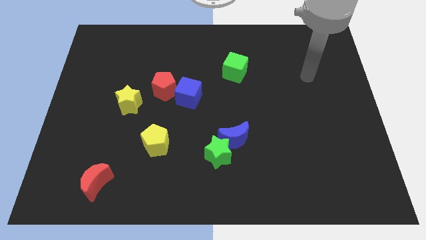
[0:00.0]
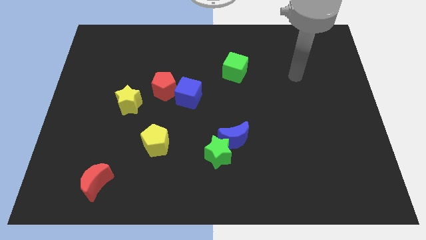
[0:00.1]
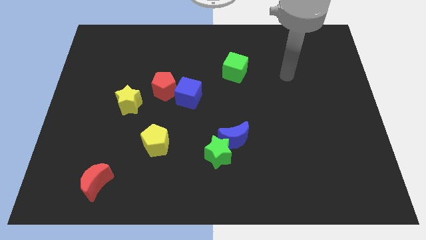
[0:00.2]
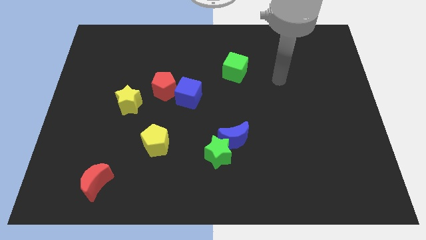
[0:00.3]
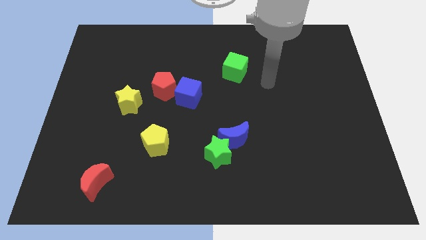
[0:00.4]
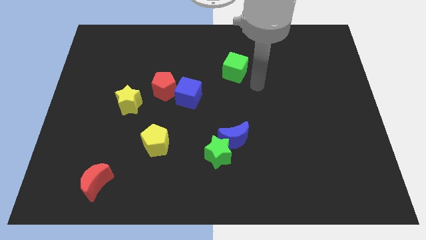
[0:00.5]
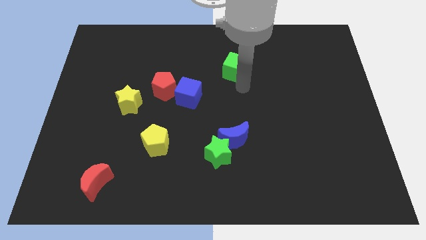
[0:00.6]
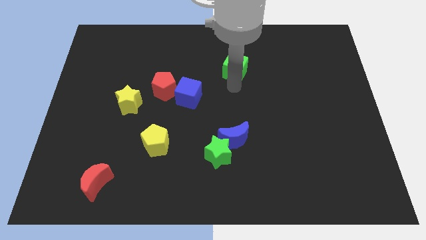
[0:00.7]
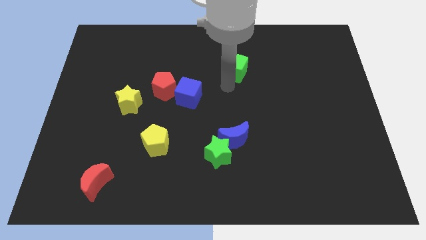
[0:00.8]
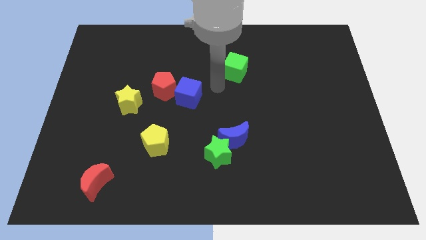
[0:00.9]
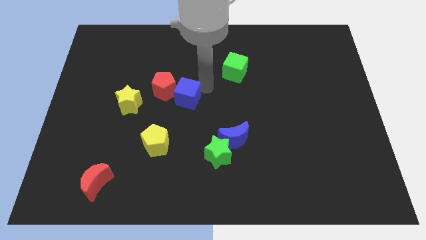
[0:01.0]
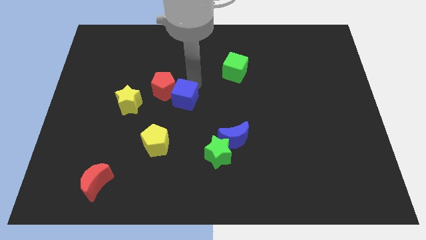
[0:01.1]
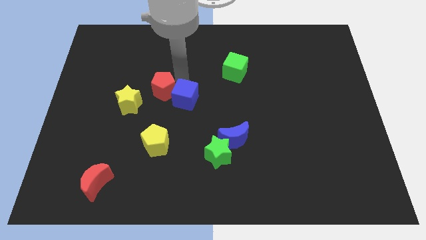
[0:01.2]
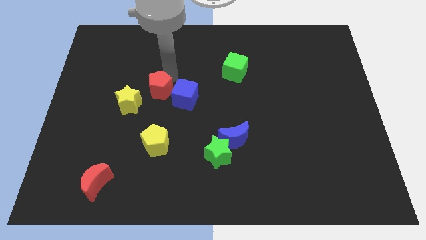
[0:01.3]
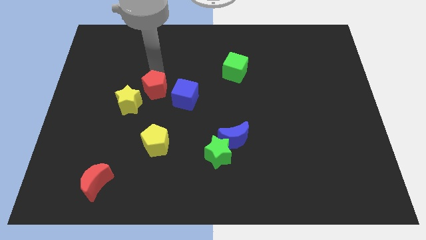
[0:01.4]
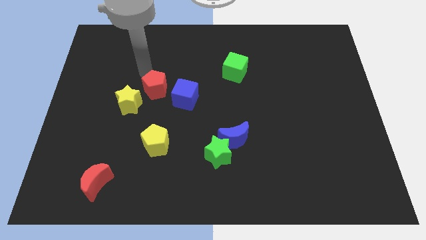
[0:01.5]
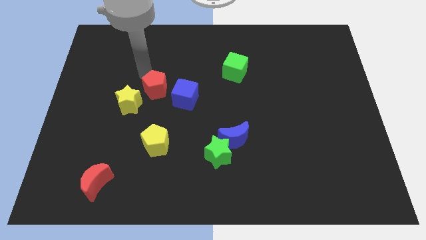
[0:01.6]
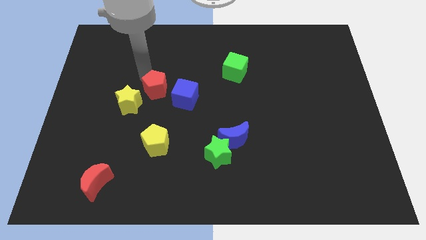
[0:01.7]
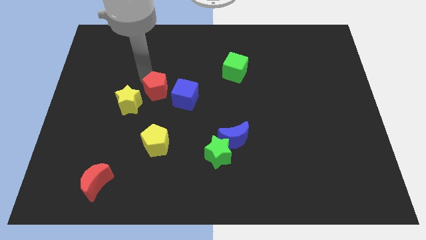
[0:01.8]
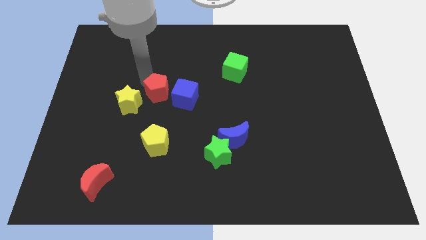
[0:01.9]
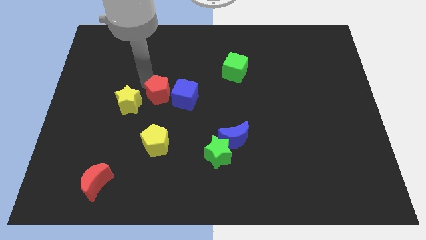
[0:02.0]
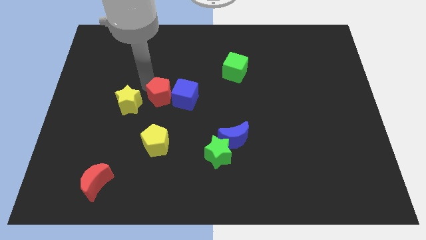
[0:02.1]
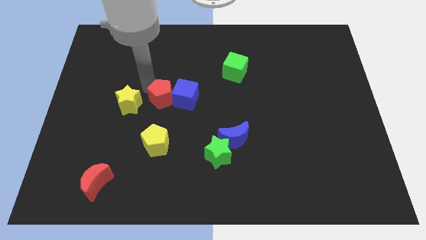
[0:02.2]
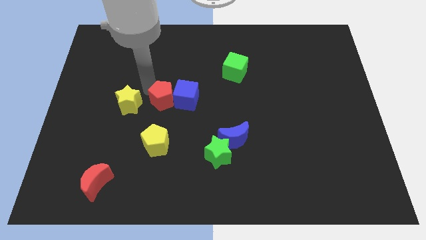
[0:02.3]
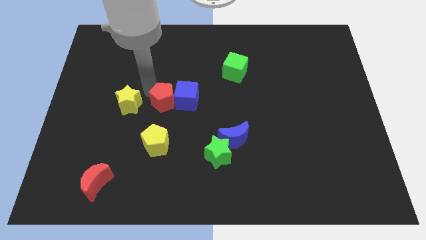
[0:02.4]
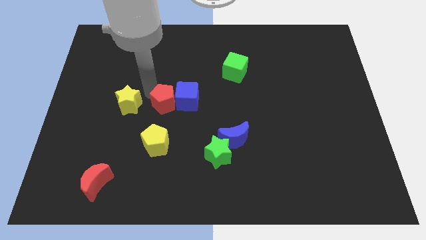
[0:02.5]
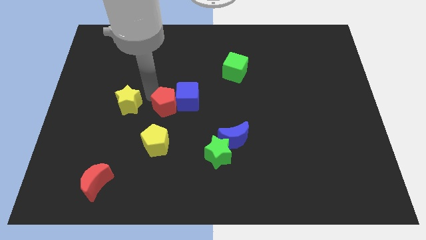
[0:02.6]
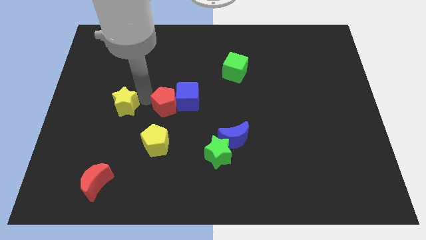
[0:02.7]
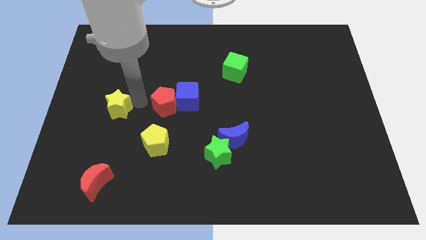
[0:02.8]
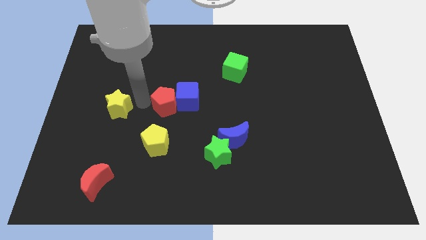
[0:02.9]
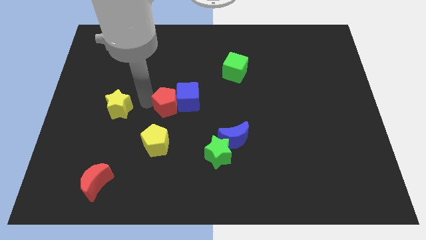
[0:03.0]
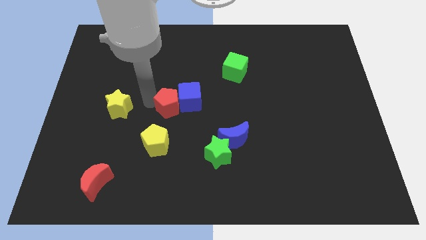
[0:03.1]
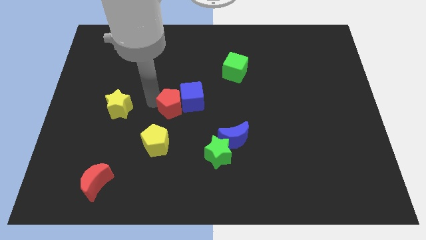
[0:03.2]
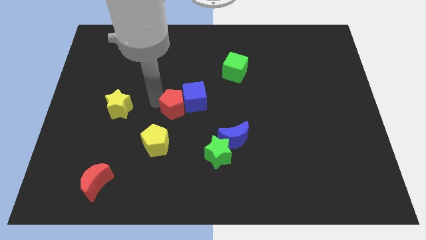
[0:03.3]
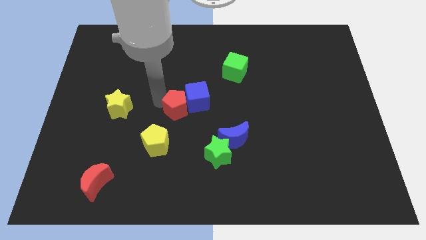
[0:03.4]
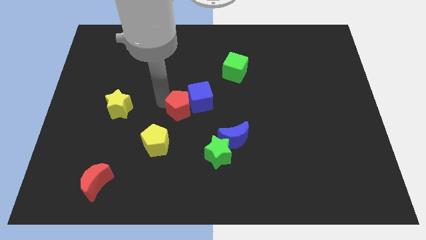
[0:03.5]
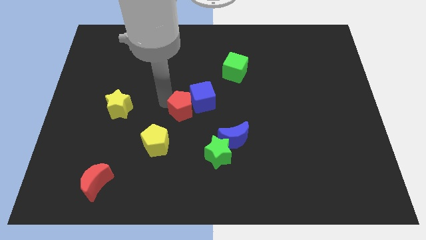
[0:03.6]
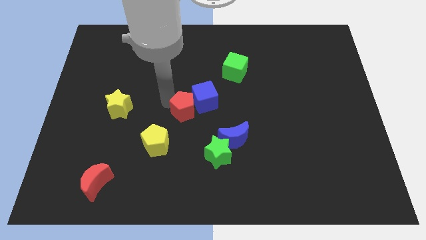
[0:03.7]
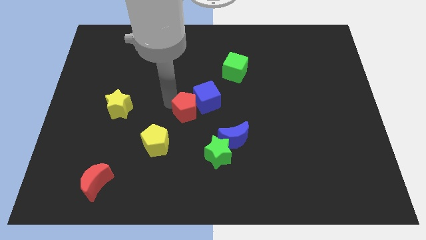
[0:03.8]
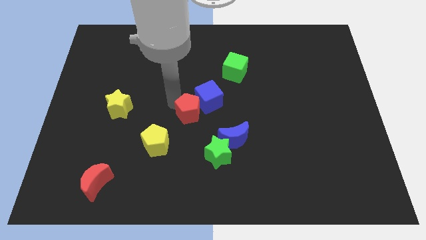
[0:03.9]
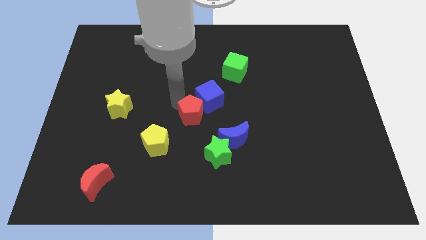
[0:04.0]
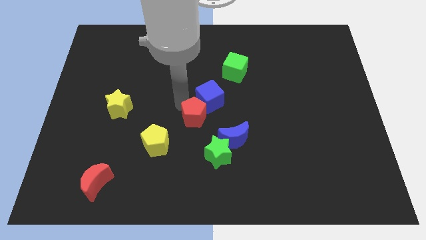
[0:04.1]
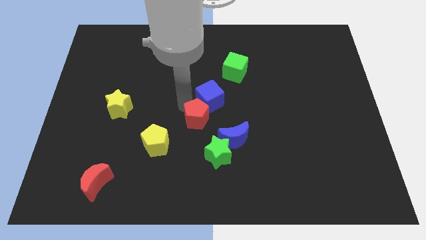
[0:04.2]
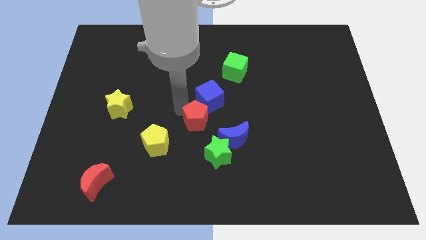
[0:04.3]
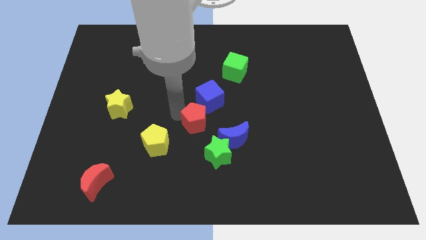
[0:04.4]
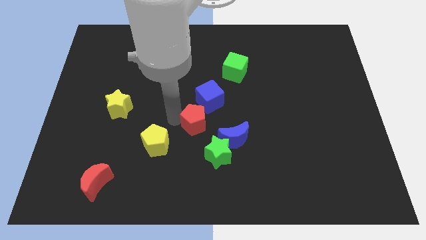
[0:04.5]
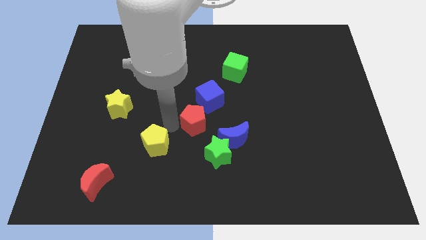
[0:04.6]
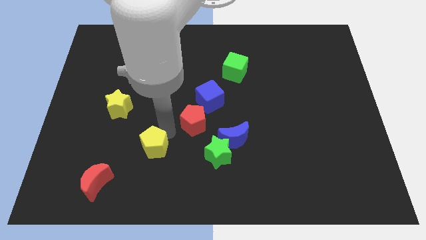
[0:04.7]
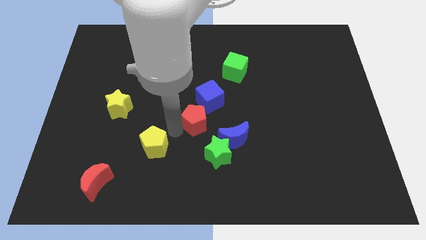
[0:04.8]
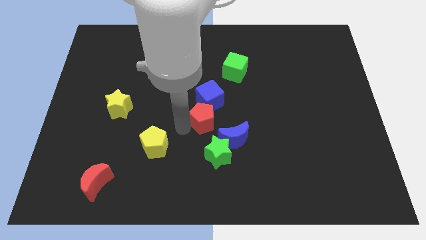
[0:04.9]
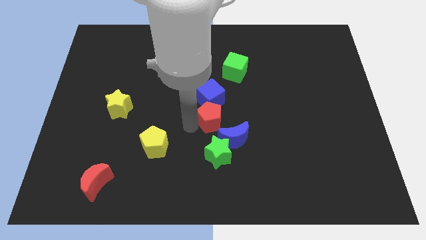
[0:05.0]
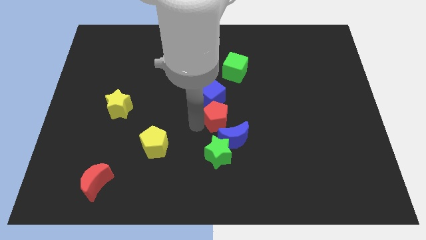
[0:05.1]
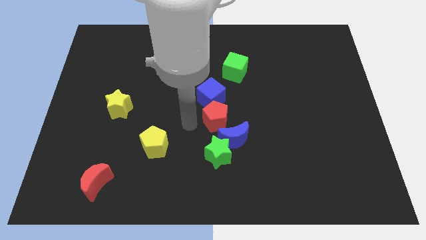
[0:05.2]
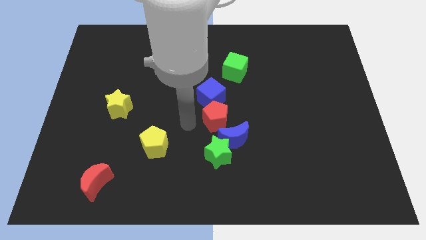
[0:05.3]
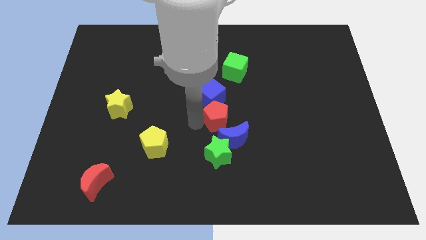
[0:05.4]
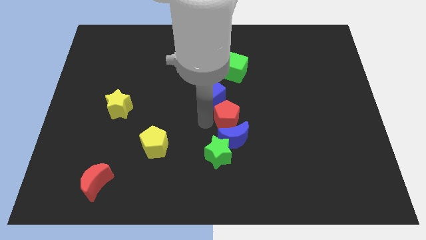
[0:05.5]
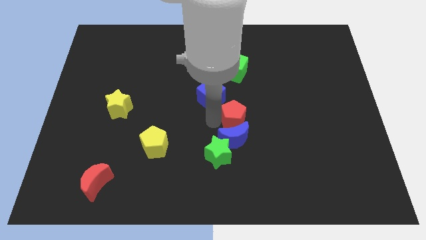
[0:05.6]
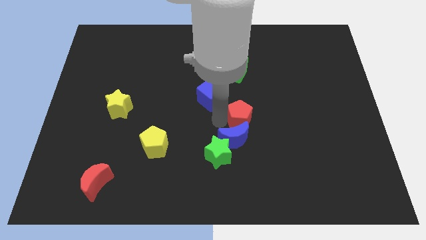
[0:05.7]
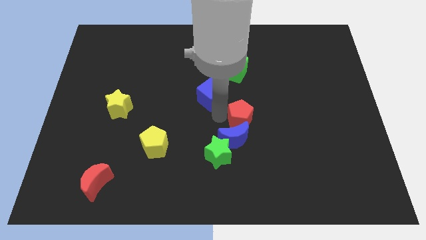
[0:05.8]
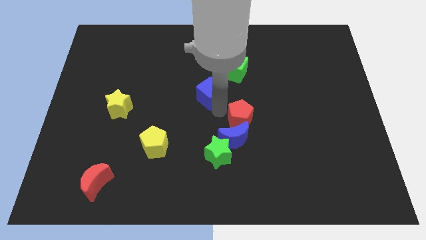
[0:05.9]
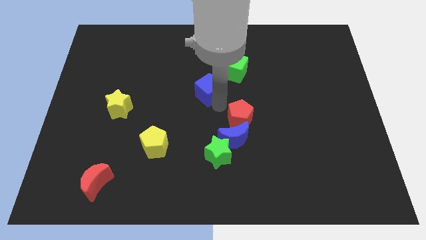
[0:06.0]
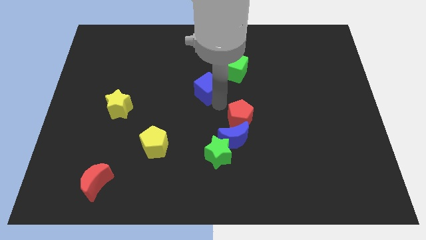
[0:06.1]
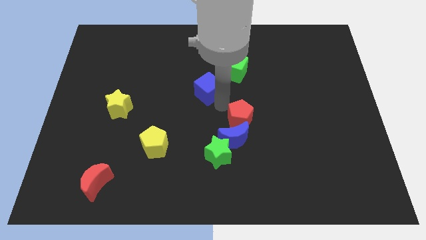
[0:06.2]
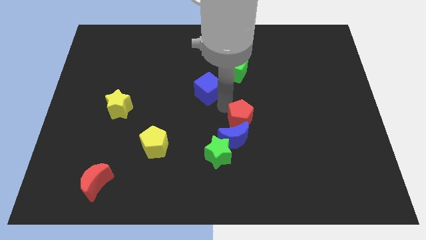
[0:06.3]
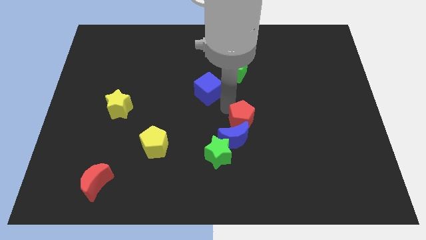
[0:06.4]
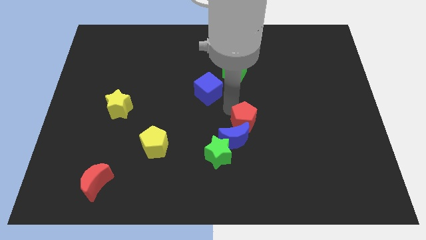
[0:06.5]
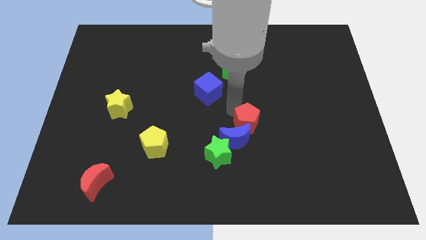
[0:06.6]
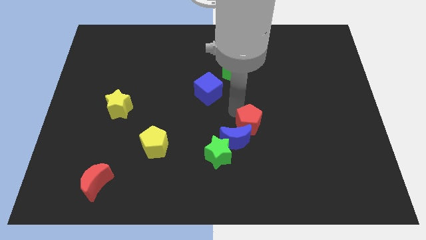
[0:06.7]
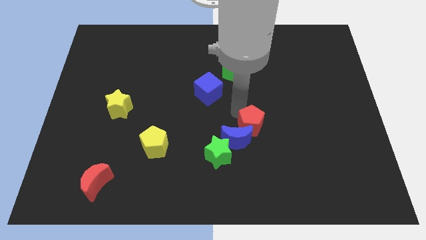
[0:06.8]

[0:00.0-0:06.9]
move the red pentagon down and then to the right

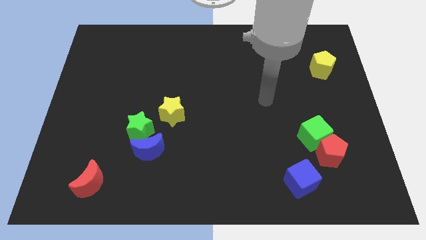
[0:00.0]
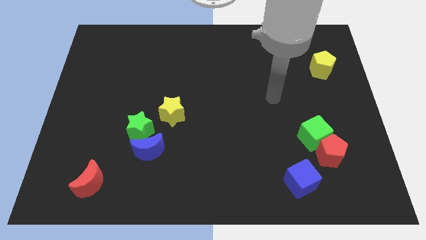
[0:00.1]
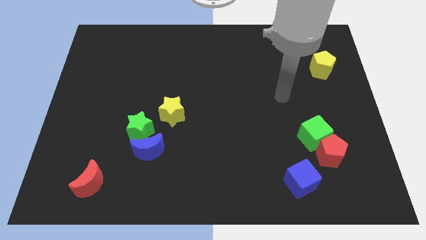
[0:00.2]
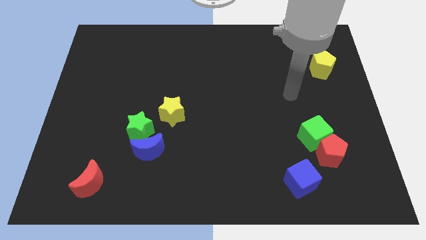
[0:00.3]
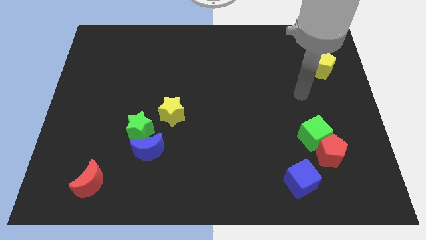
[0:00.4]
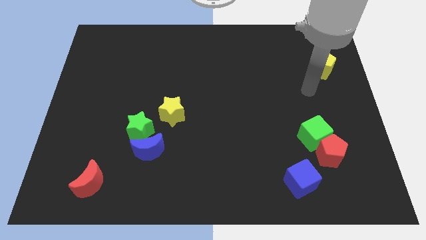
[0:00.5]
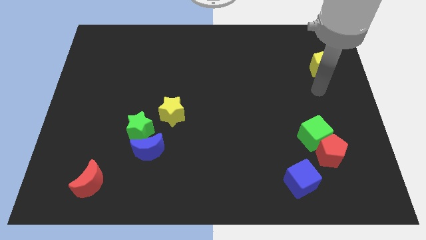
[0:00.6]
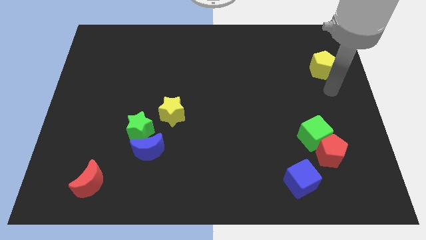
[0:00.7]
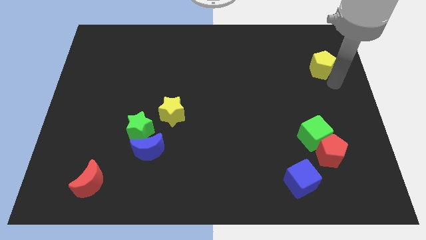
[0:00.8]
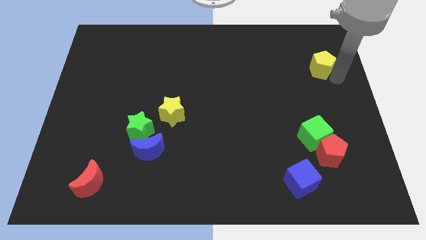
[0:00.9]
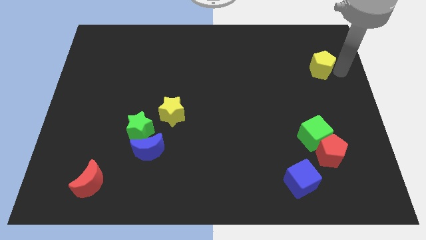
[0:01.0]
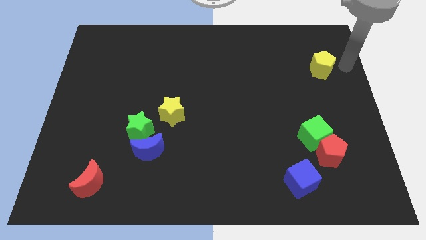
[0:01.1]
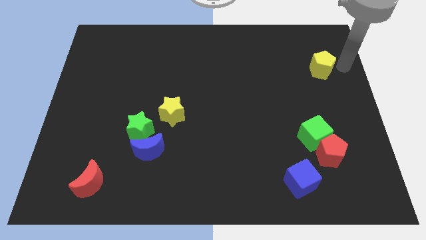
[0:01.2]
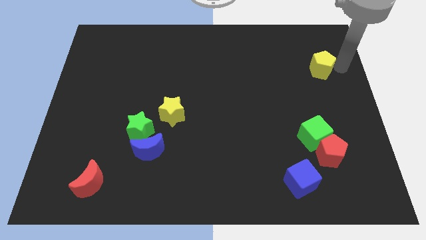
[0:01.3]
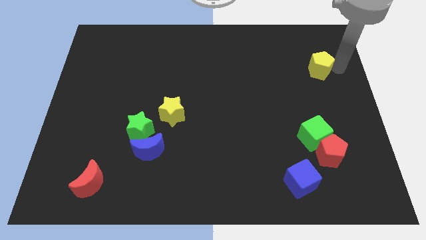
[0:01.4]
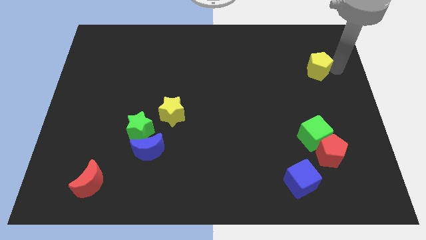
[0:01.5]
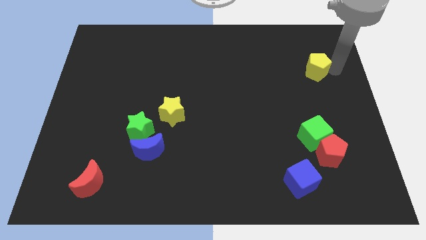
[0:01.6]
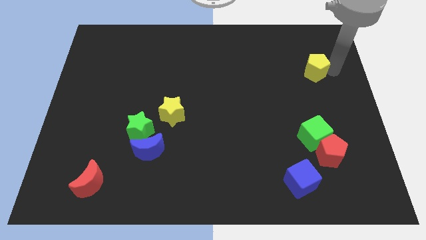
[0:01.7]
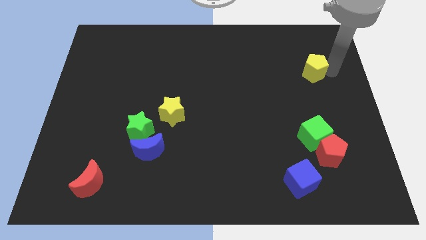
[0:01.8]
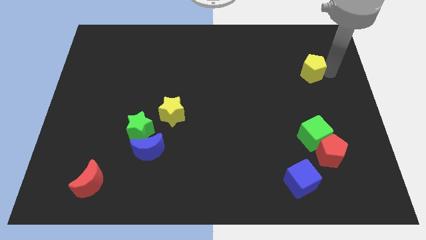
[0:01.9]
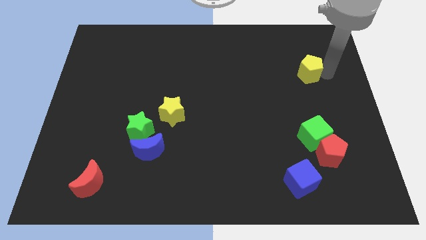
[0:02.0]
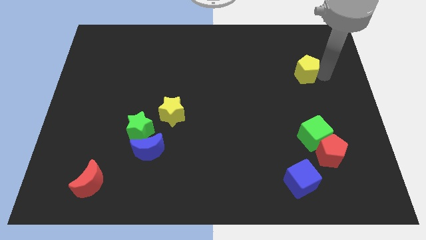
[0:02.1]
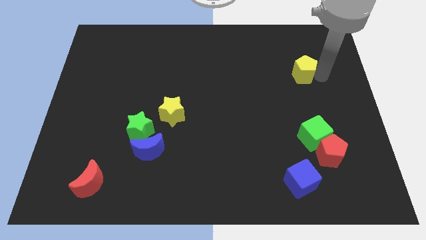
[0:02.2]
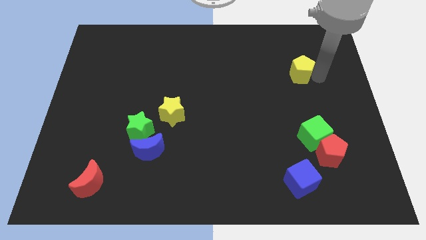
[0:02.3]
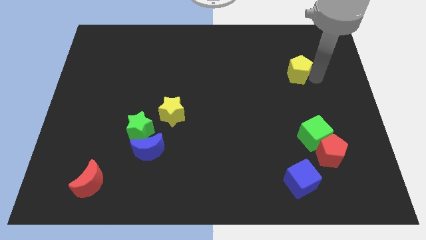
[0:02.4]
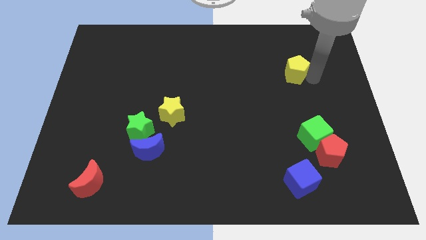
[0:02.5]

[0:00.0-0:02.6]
push the yellow pentagon a bit to the left
